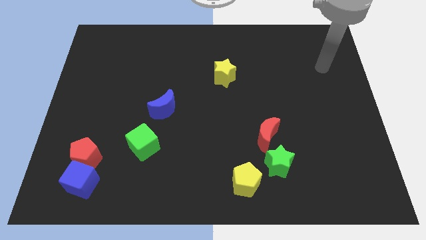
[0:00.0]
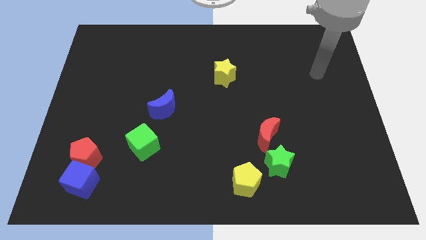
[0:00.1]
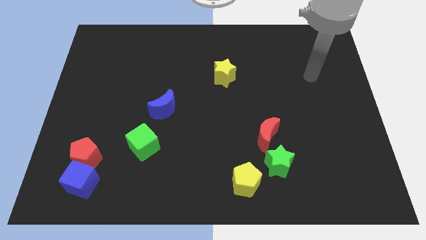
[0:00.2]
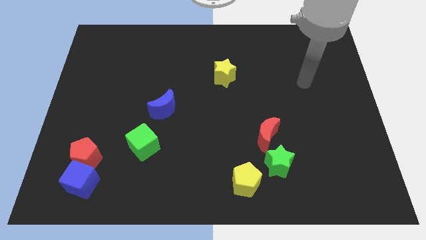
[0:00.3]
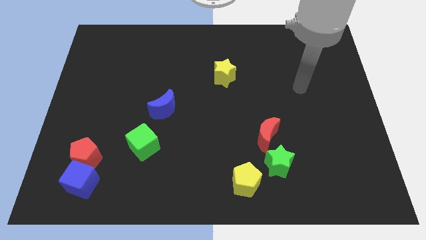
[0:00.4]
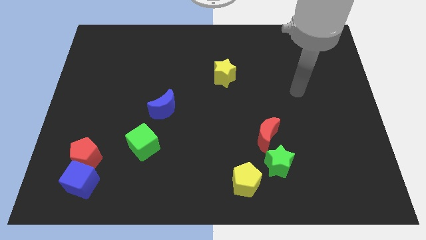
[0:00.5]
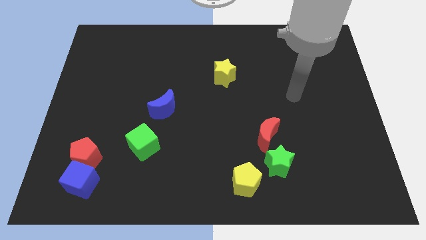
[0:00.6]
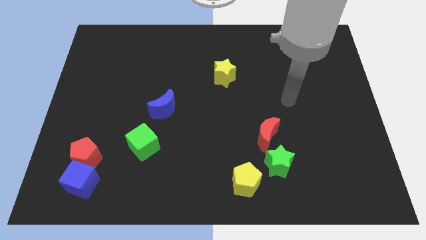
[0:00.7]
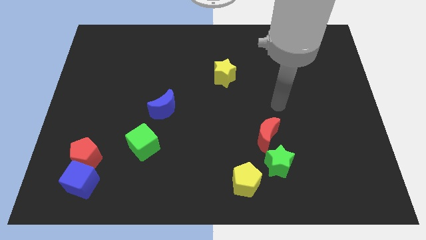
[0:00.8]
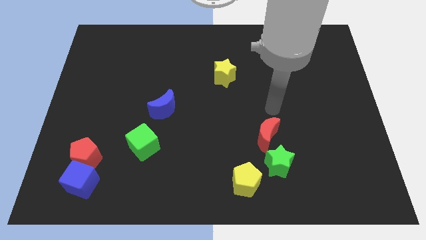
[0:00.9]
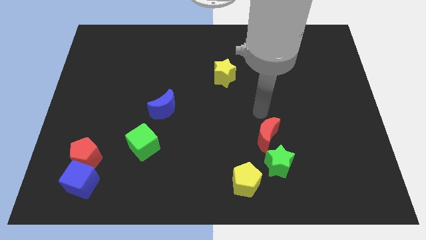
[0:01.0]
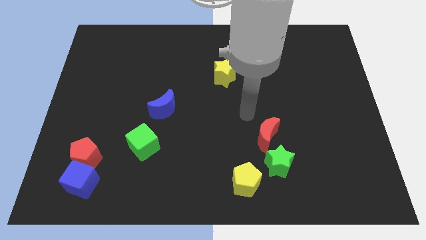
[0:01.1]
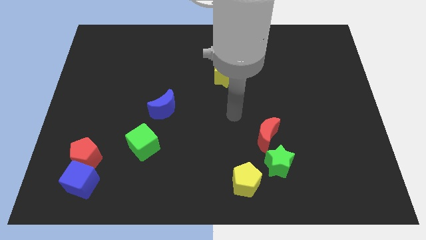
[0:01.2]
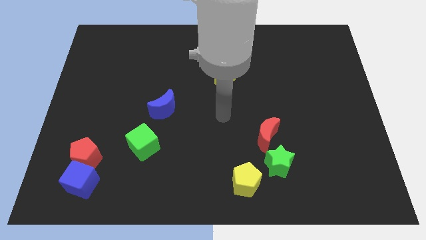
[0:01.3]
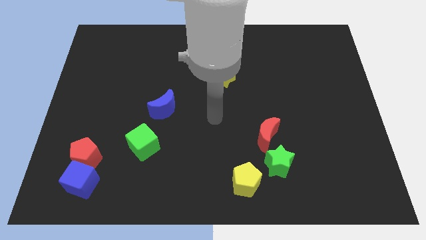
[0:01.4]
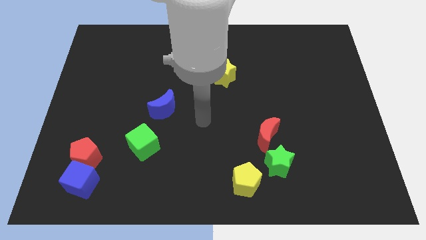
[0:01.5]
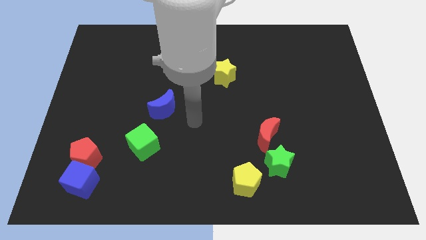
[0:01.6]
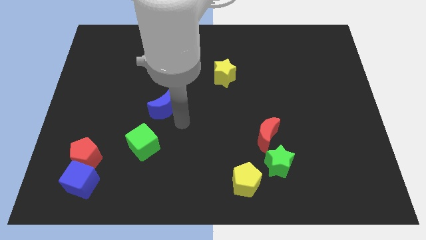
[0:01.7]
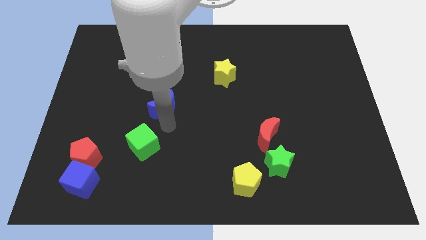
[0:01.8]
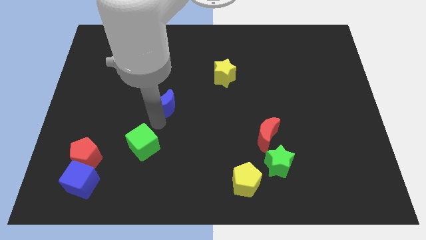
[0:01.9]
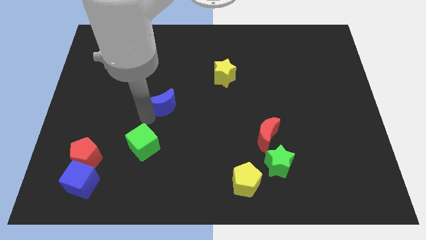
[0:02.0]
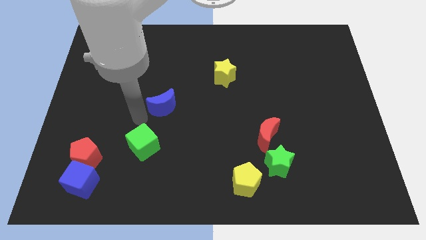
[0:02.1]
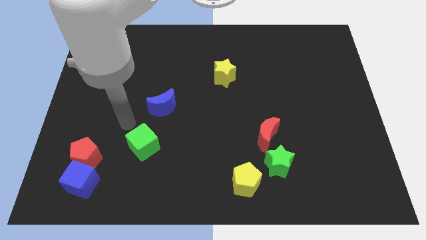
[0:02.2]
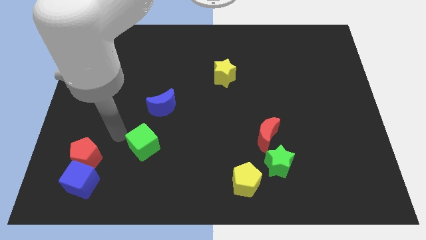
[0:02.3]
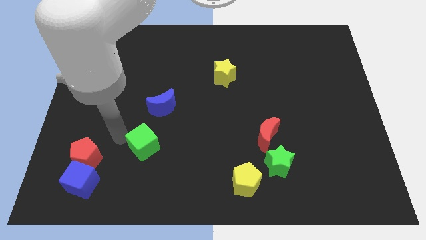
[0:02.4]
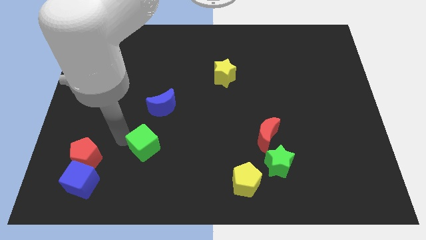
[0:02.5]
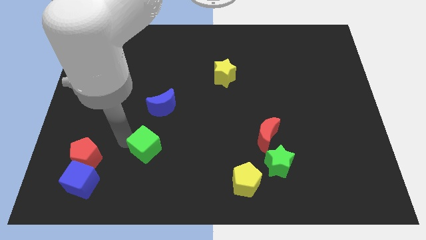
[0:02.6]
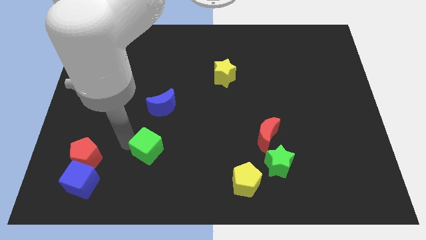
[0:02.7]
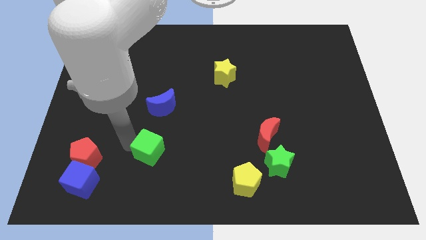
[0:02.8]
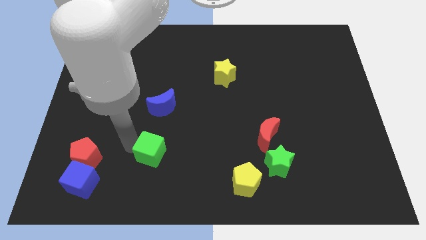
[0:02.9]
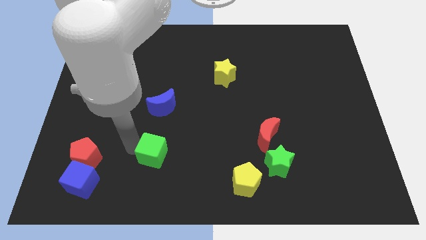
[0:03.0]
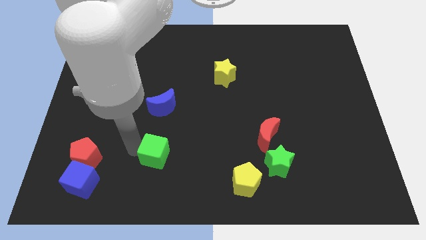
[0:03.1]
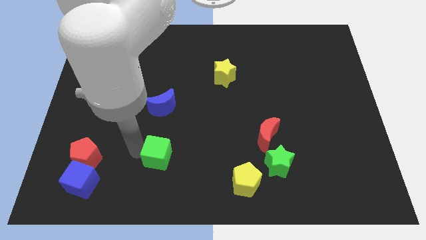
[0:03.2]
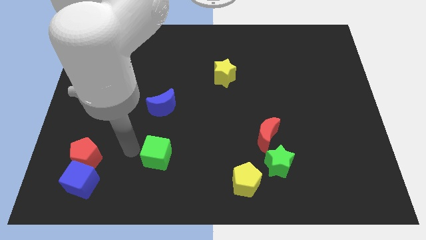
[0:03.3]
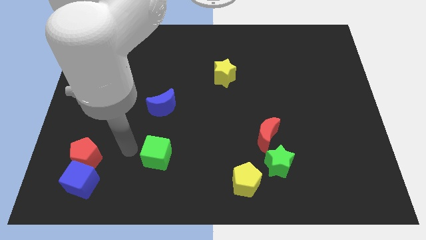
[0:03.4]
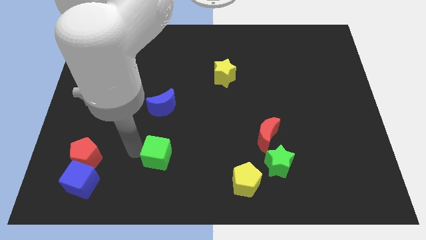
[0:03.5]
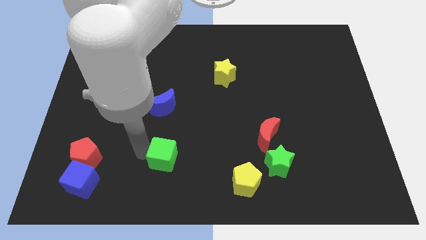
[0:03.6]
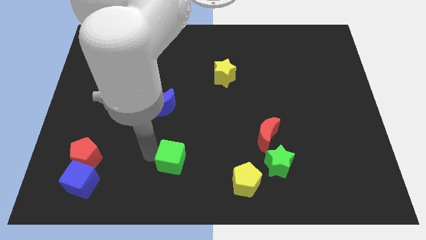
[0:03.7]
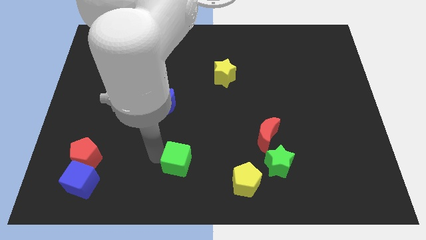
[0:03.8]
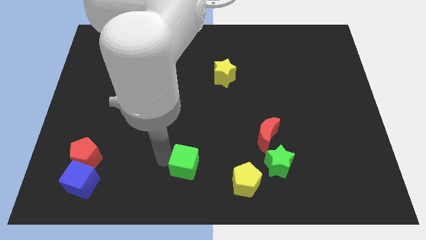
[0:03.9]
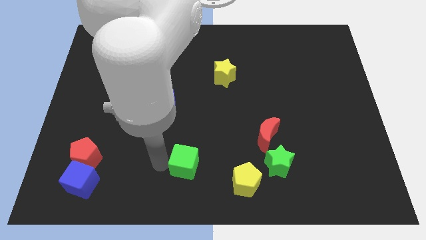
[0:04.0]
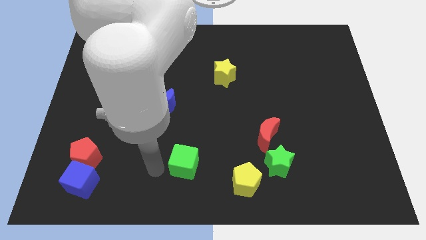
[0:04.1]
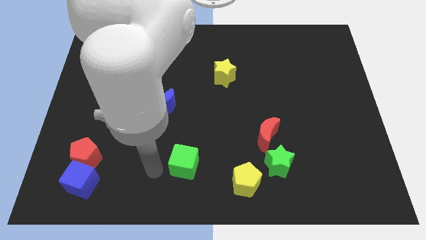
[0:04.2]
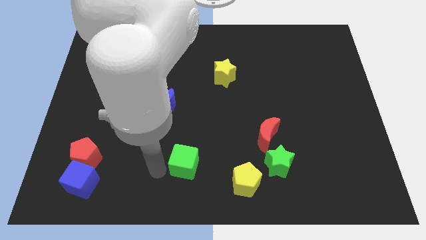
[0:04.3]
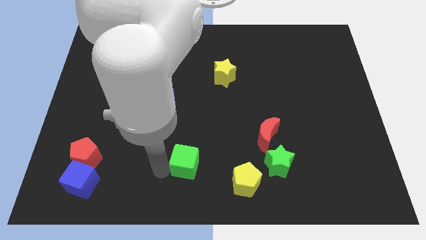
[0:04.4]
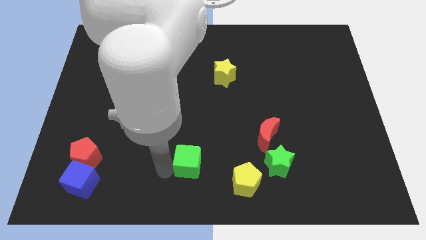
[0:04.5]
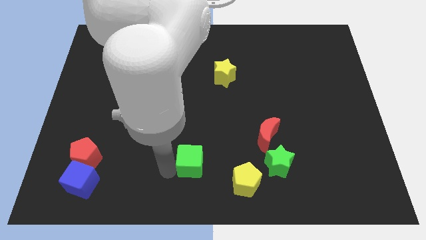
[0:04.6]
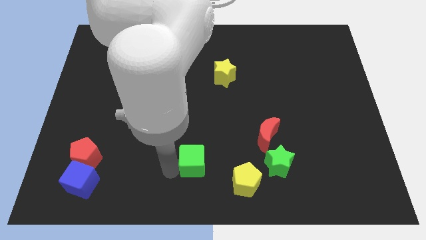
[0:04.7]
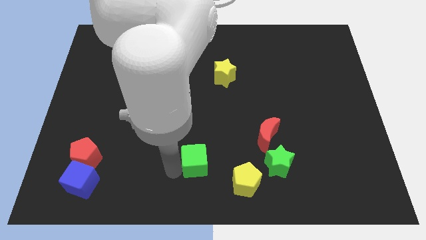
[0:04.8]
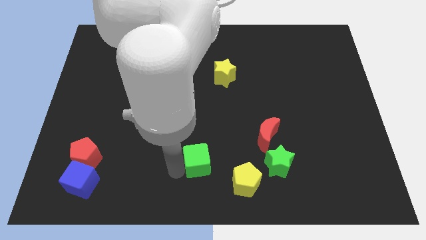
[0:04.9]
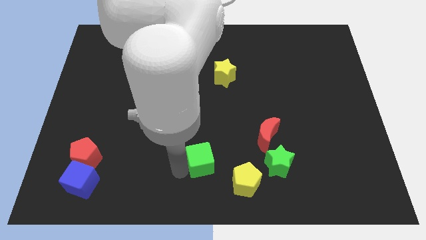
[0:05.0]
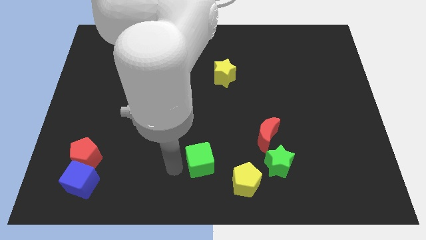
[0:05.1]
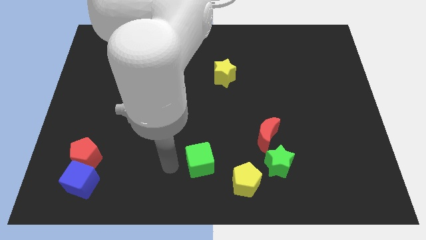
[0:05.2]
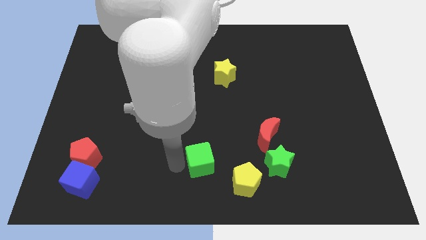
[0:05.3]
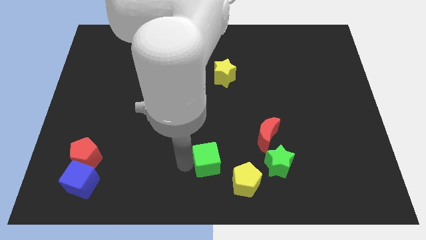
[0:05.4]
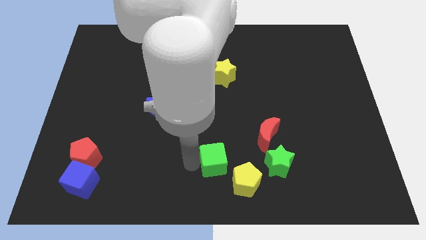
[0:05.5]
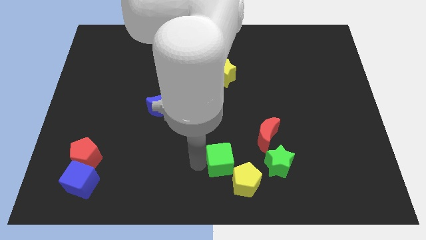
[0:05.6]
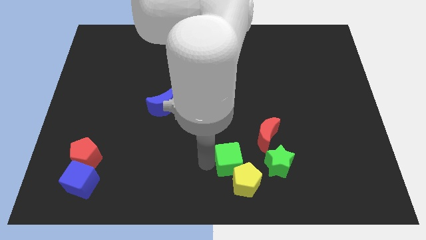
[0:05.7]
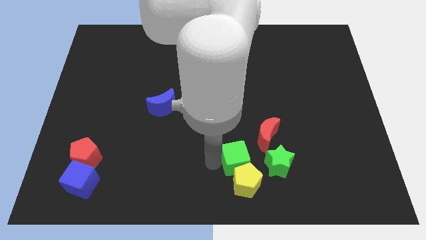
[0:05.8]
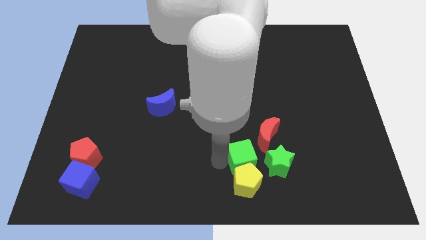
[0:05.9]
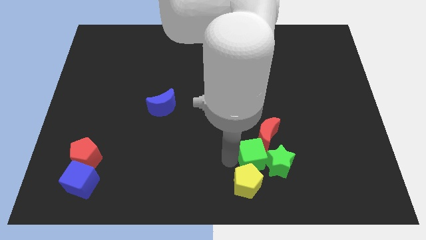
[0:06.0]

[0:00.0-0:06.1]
slide the green cube towards the green star

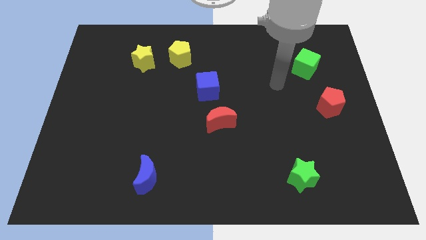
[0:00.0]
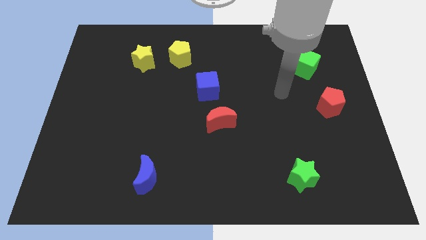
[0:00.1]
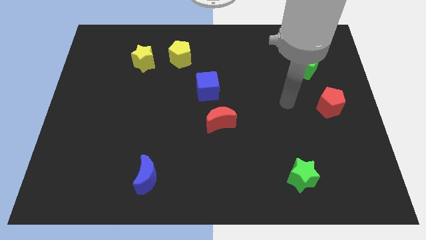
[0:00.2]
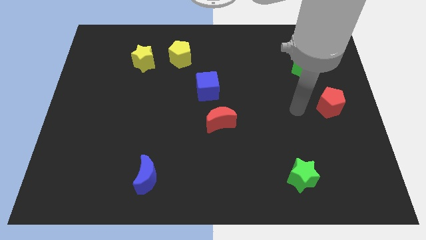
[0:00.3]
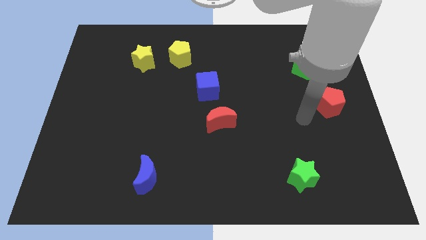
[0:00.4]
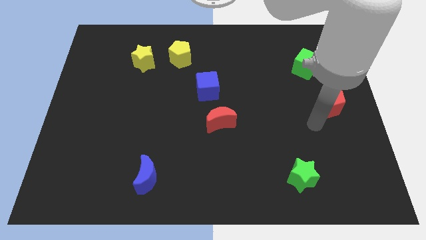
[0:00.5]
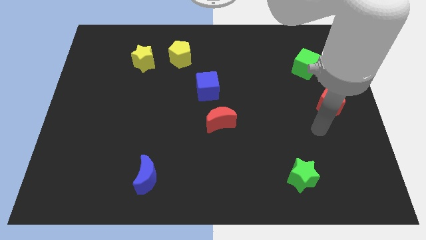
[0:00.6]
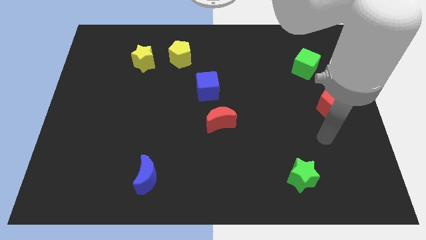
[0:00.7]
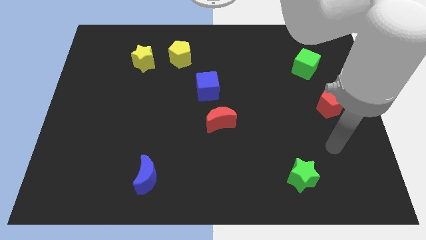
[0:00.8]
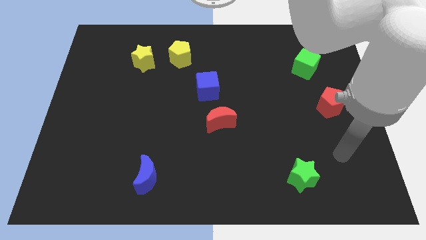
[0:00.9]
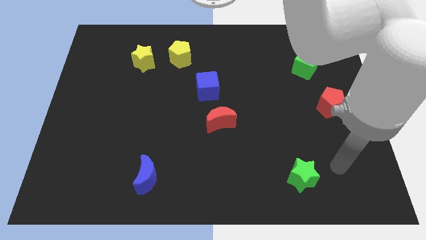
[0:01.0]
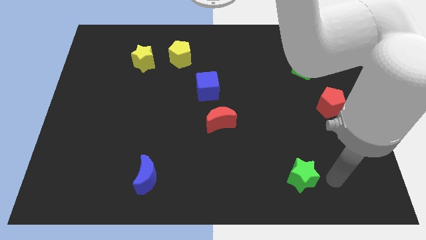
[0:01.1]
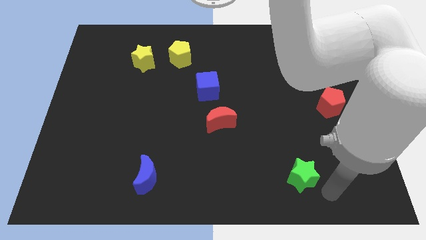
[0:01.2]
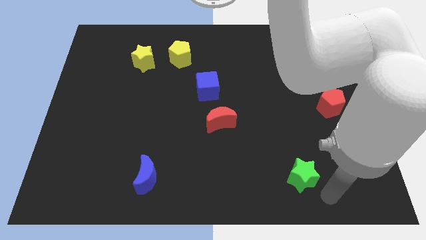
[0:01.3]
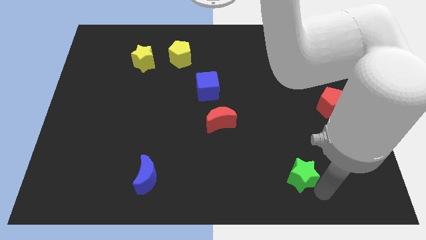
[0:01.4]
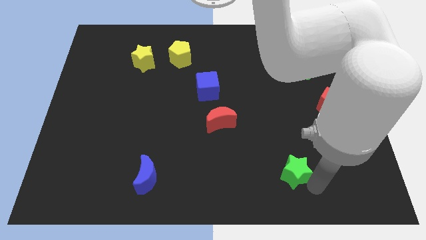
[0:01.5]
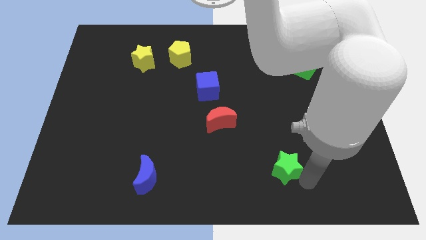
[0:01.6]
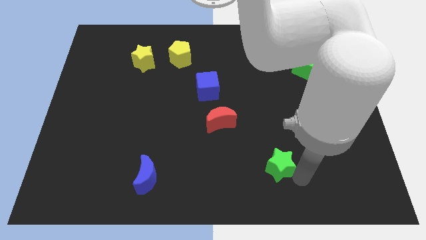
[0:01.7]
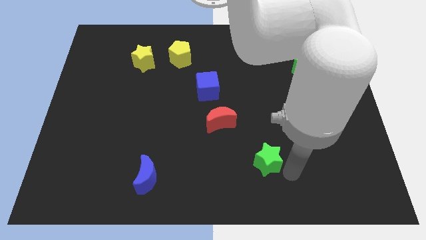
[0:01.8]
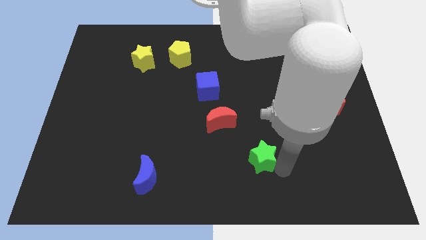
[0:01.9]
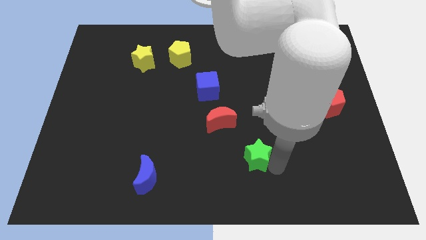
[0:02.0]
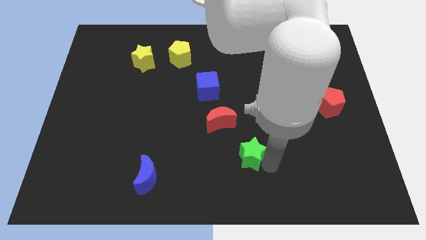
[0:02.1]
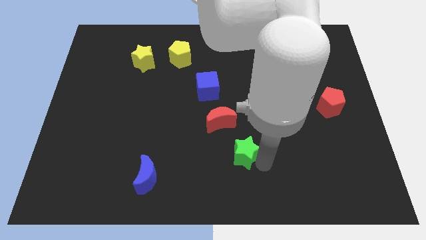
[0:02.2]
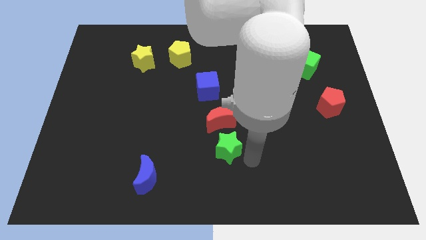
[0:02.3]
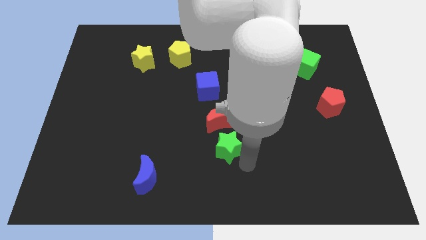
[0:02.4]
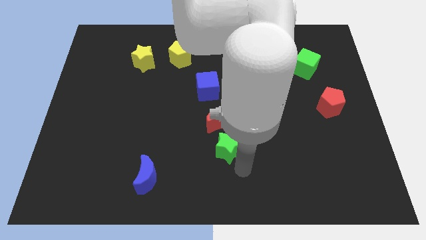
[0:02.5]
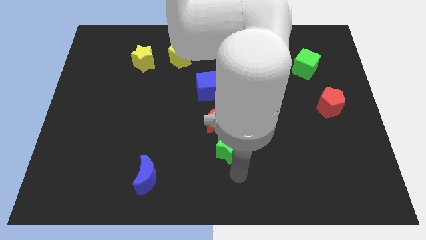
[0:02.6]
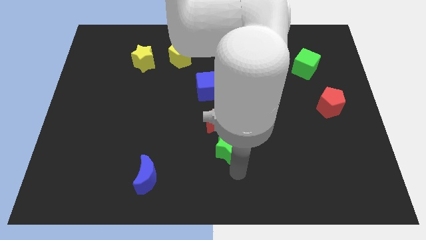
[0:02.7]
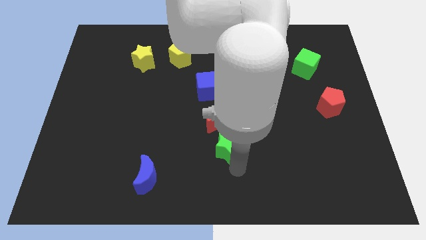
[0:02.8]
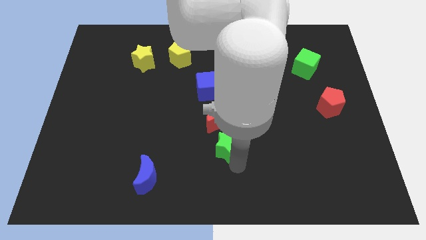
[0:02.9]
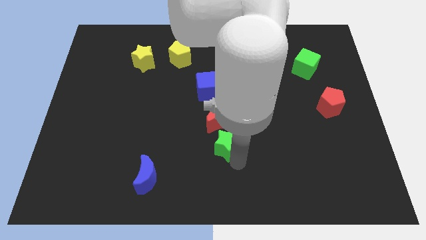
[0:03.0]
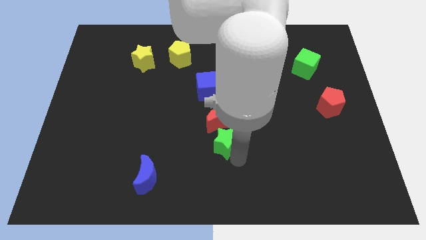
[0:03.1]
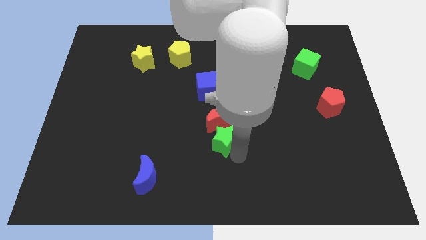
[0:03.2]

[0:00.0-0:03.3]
push the green star close to the red moon
